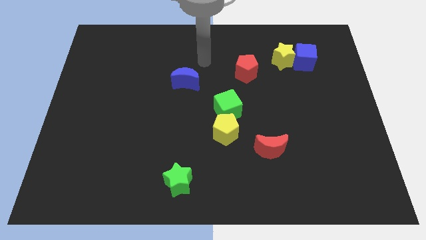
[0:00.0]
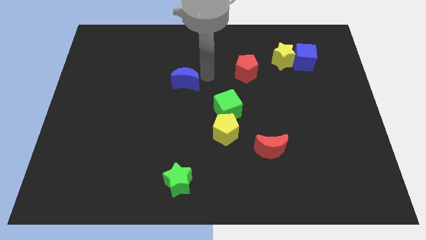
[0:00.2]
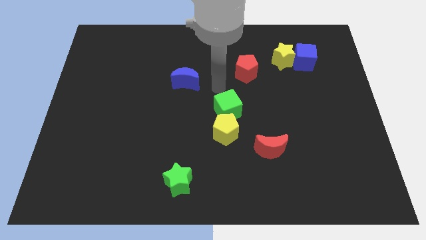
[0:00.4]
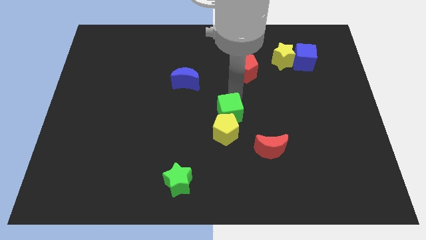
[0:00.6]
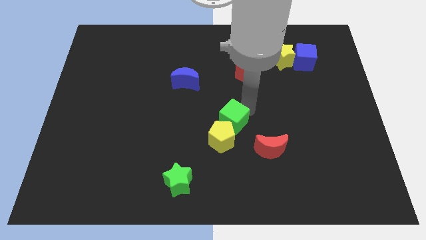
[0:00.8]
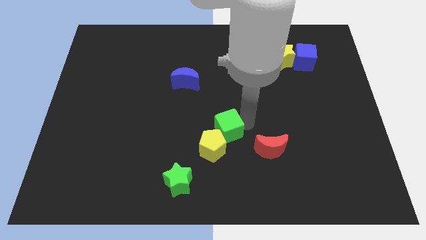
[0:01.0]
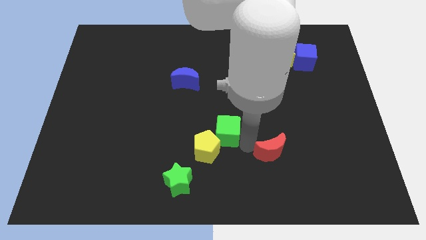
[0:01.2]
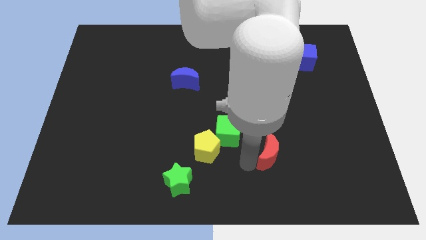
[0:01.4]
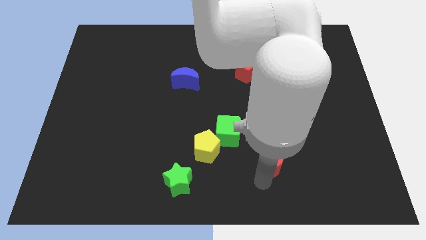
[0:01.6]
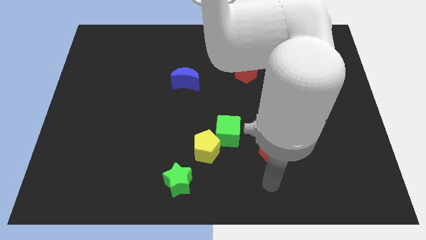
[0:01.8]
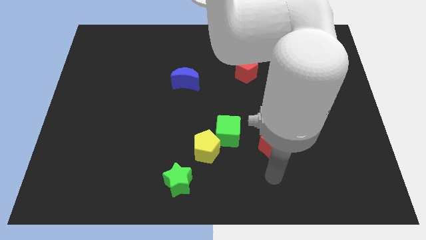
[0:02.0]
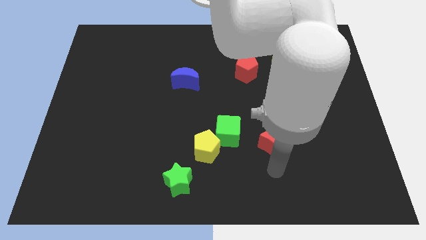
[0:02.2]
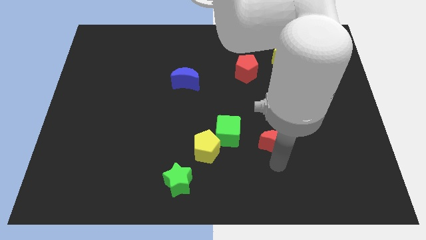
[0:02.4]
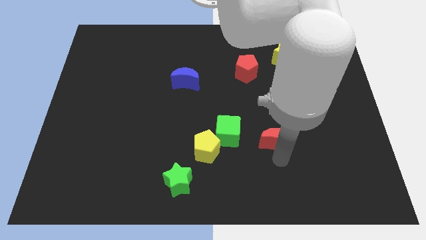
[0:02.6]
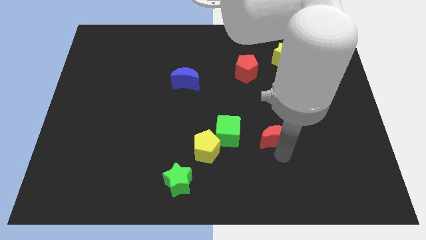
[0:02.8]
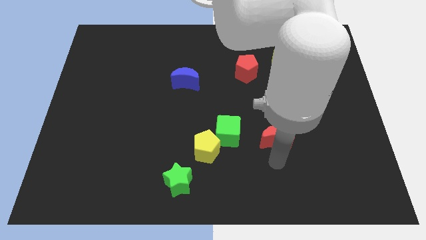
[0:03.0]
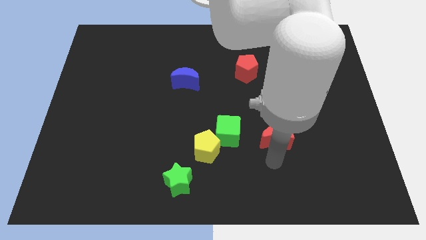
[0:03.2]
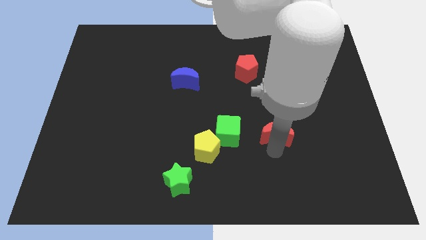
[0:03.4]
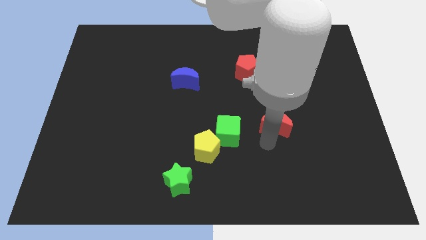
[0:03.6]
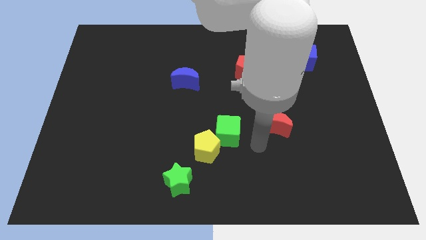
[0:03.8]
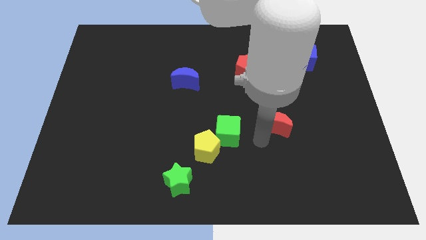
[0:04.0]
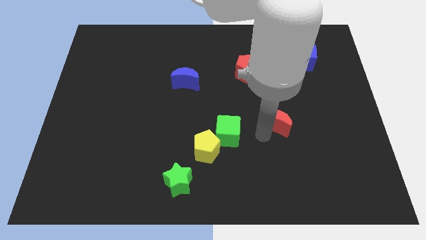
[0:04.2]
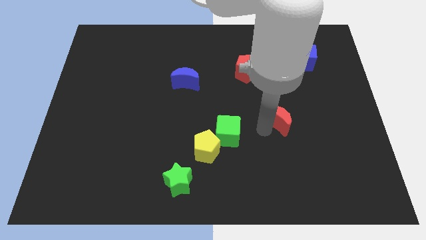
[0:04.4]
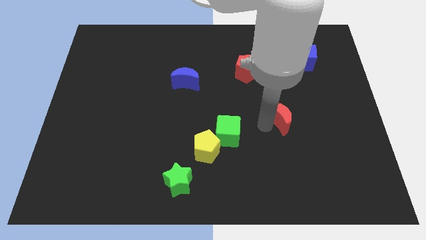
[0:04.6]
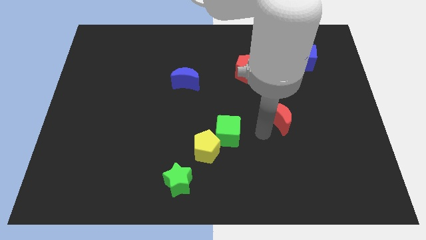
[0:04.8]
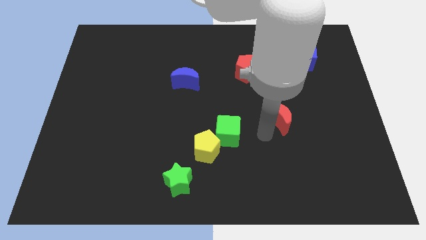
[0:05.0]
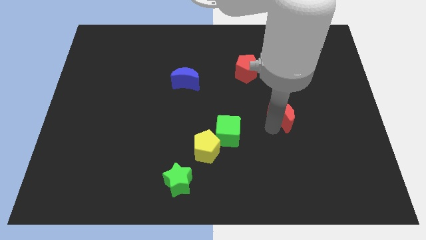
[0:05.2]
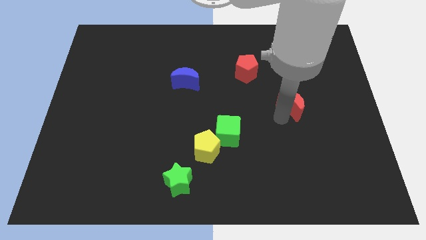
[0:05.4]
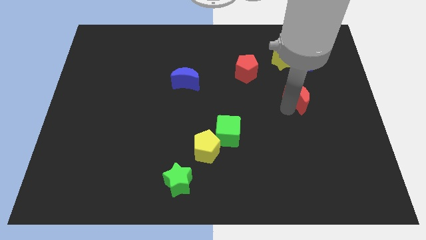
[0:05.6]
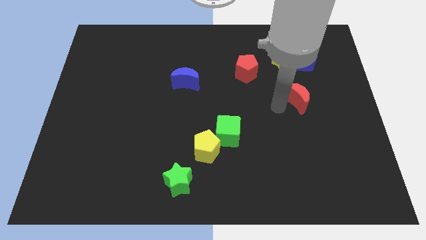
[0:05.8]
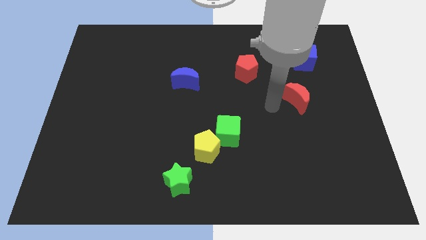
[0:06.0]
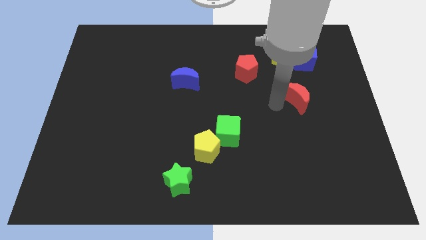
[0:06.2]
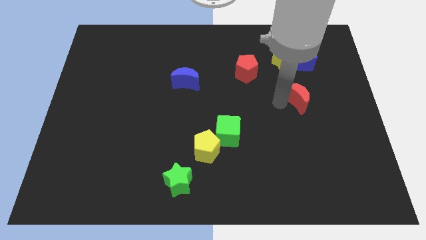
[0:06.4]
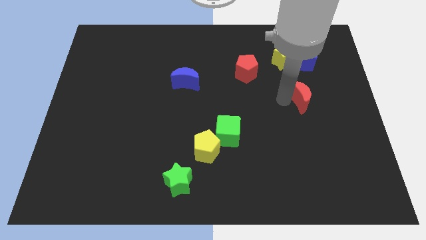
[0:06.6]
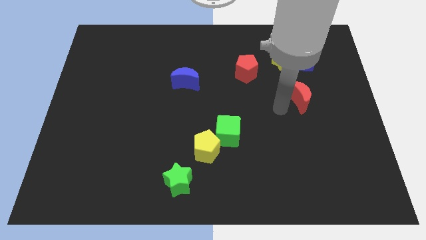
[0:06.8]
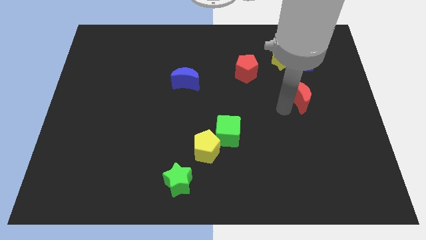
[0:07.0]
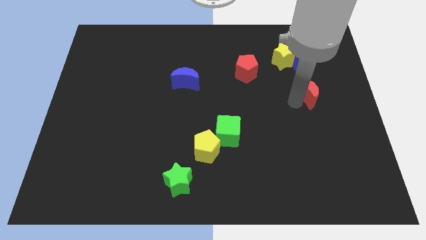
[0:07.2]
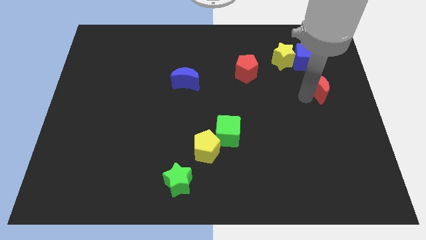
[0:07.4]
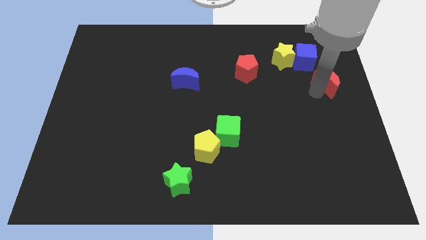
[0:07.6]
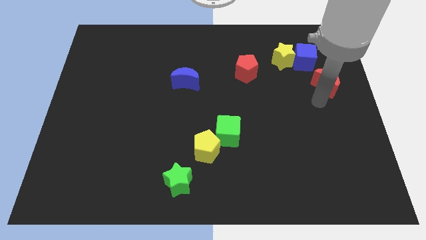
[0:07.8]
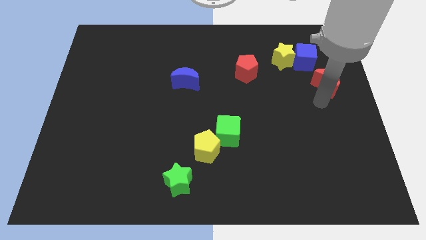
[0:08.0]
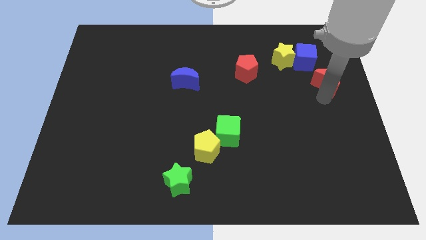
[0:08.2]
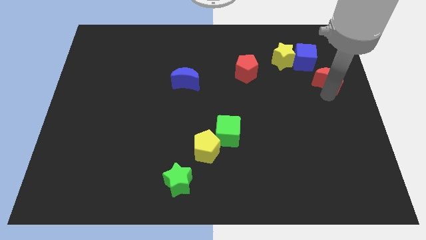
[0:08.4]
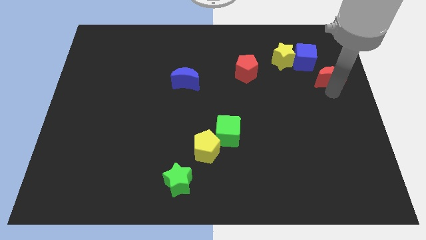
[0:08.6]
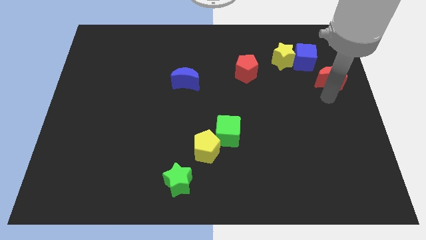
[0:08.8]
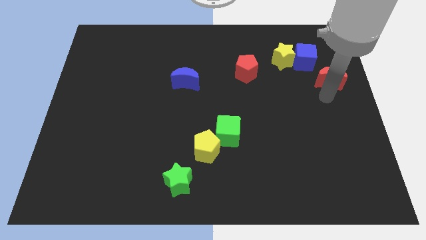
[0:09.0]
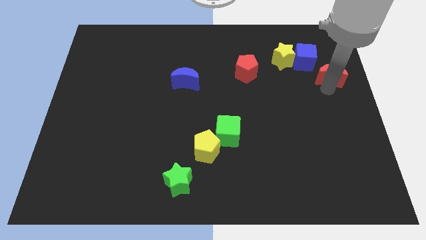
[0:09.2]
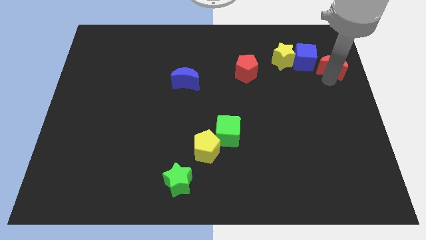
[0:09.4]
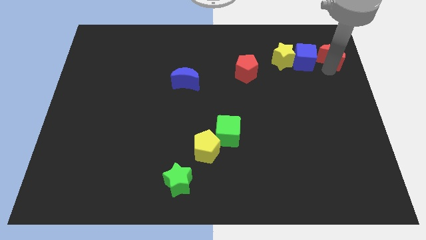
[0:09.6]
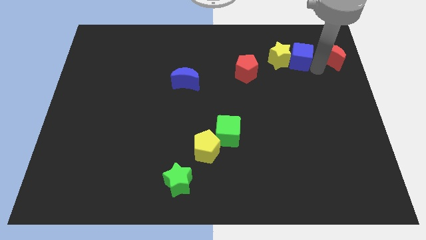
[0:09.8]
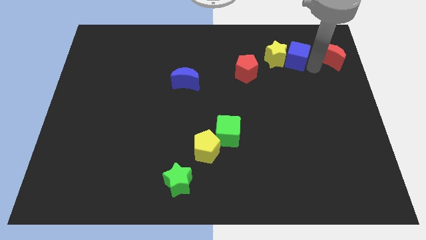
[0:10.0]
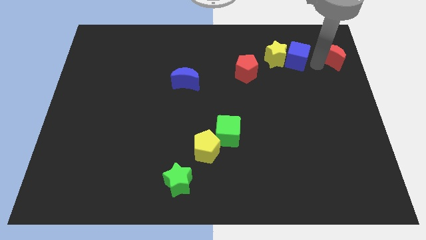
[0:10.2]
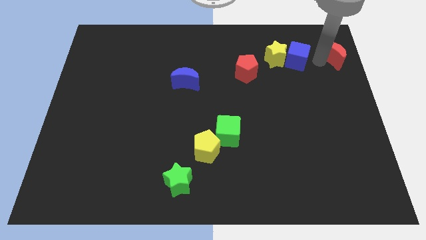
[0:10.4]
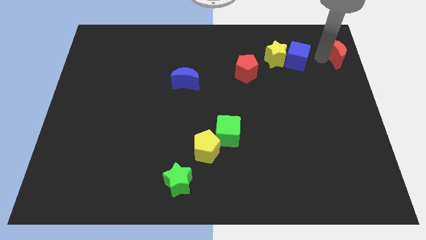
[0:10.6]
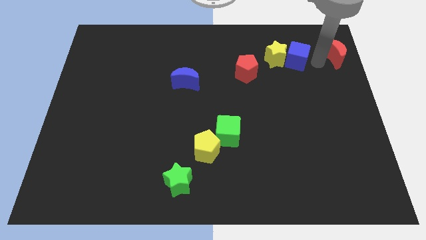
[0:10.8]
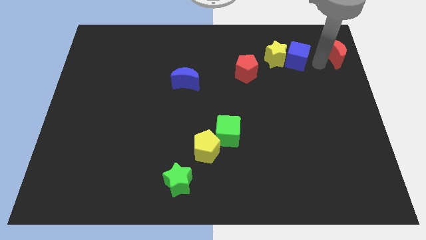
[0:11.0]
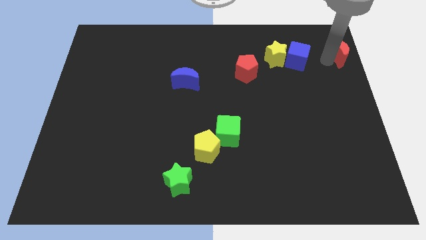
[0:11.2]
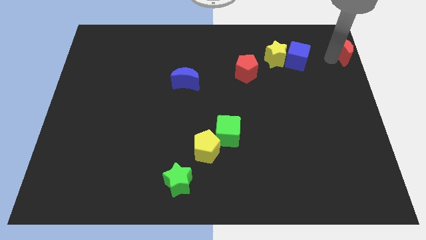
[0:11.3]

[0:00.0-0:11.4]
push the red moon to the top right of the board
